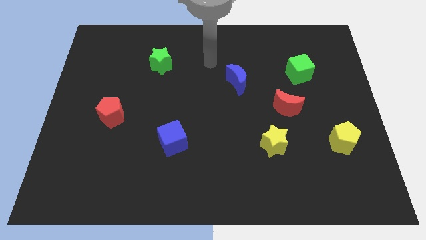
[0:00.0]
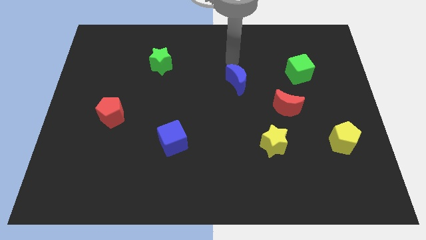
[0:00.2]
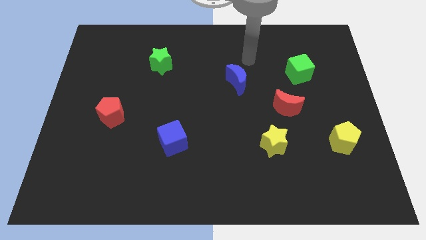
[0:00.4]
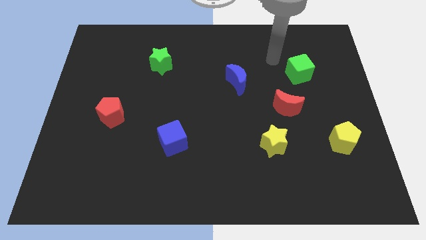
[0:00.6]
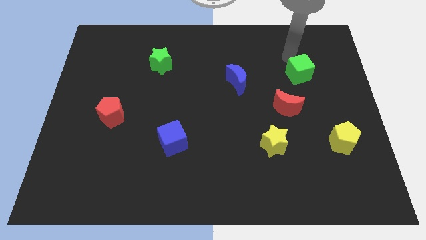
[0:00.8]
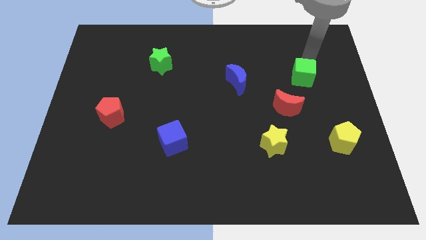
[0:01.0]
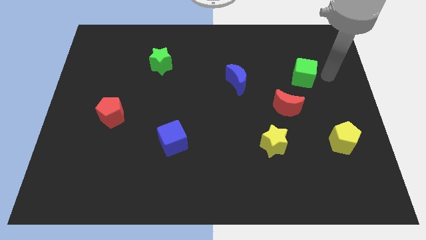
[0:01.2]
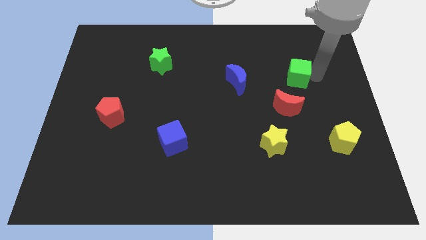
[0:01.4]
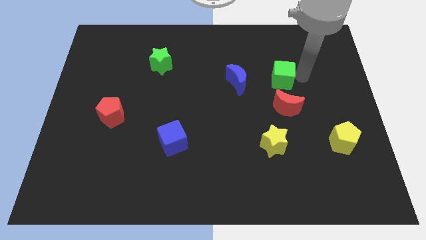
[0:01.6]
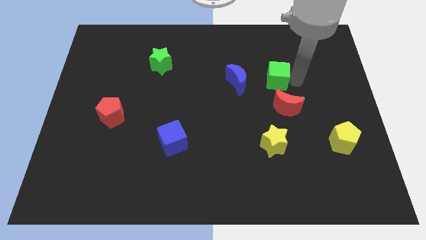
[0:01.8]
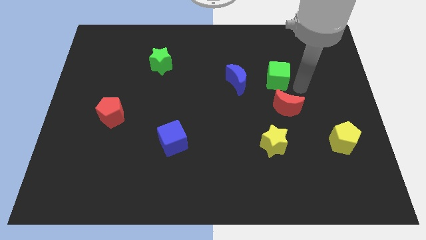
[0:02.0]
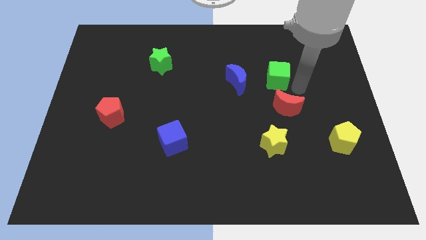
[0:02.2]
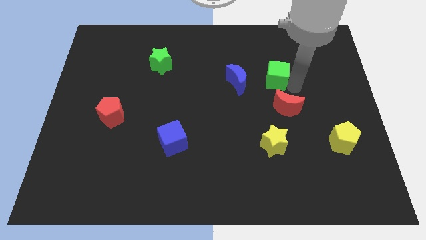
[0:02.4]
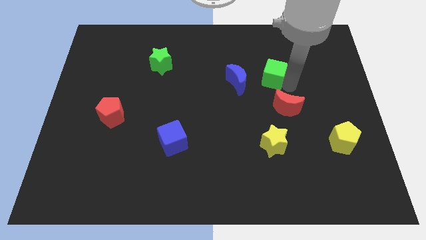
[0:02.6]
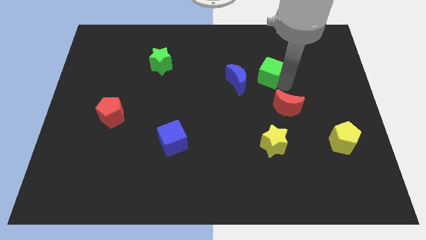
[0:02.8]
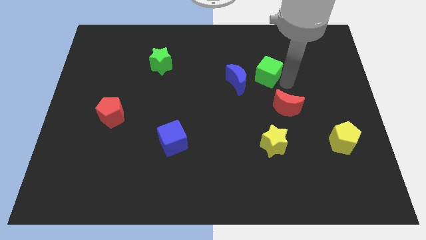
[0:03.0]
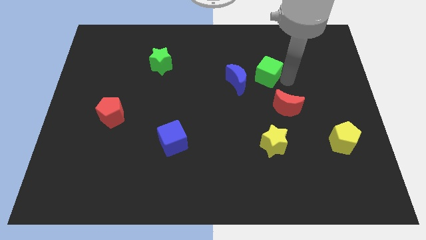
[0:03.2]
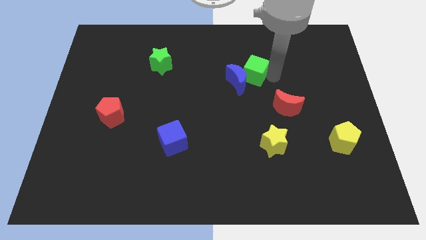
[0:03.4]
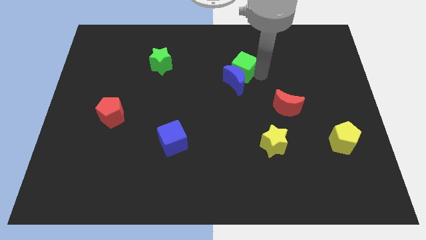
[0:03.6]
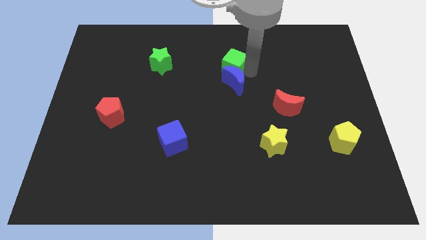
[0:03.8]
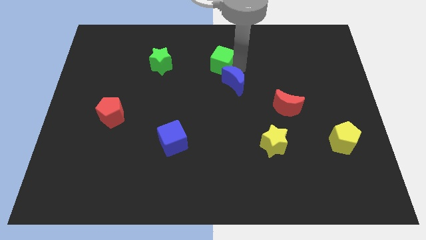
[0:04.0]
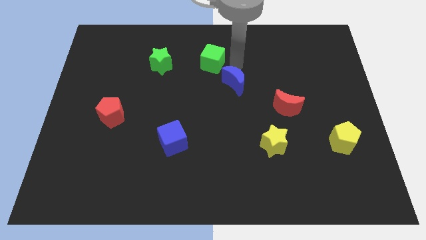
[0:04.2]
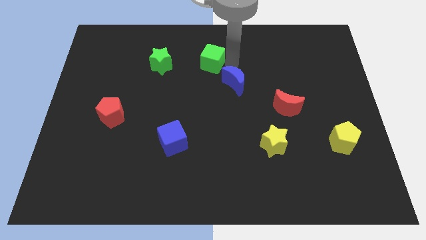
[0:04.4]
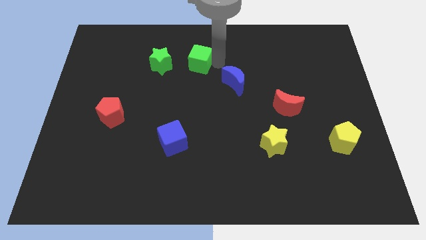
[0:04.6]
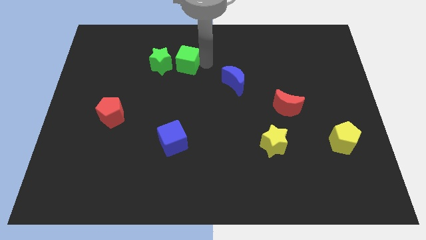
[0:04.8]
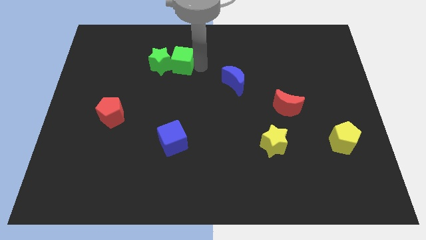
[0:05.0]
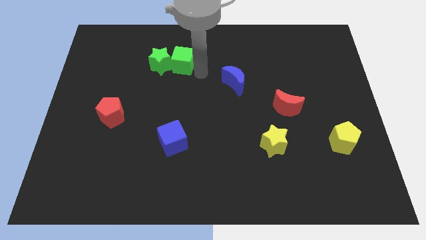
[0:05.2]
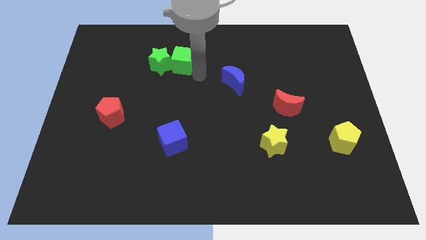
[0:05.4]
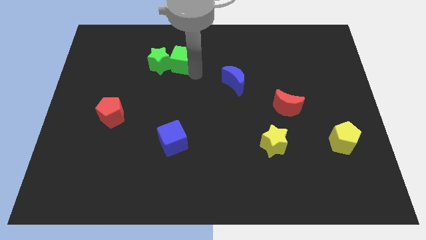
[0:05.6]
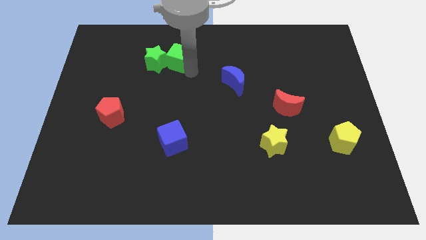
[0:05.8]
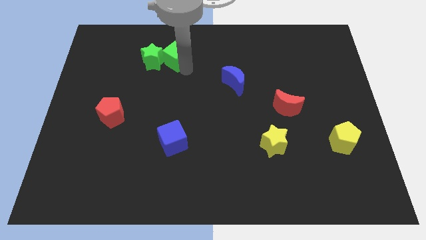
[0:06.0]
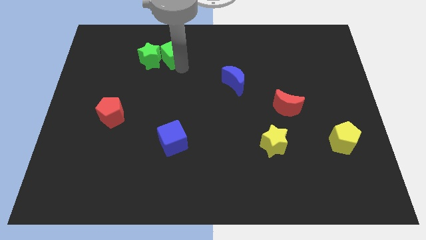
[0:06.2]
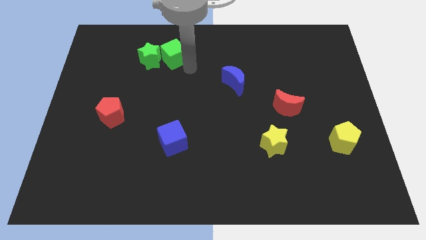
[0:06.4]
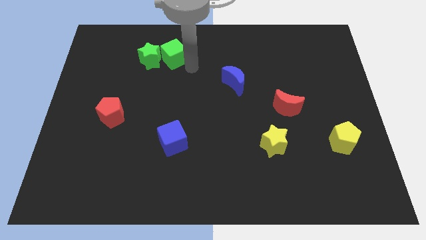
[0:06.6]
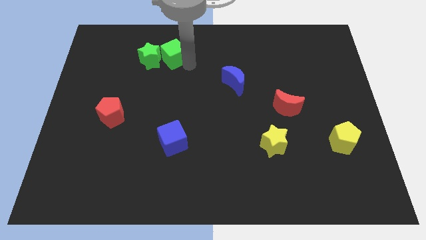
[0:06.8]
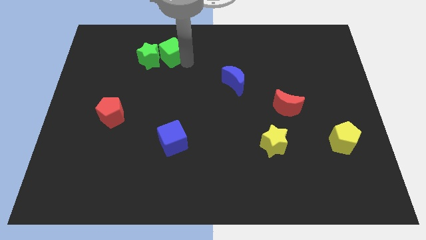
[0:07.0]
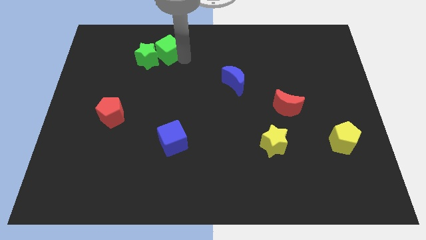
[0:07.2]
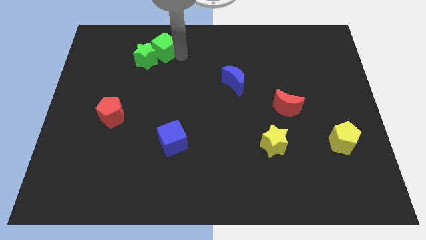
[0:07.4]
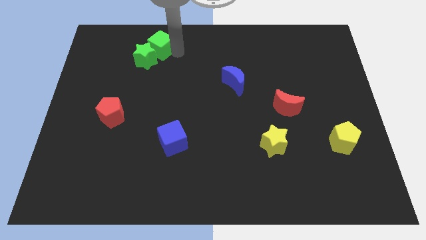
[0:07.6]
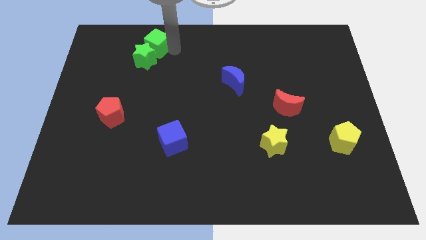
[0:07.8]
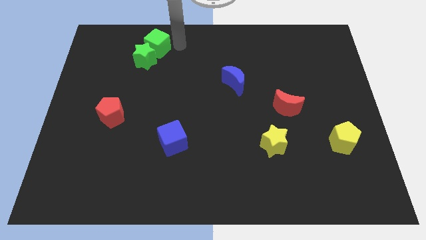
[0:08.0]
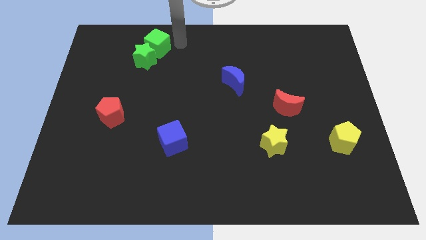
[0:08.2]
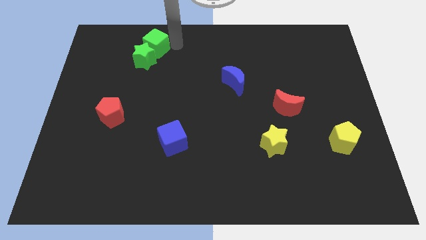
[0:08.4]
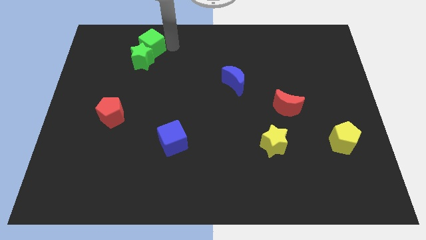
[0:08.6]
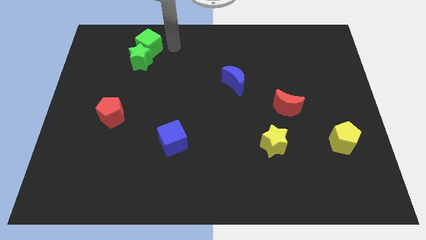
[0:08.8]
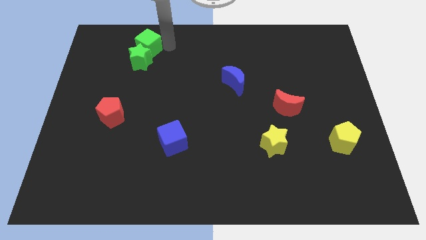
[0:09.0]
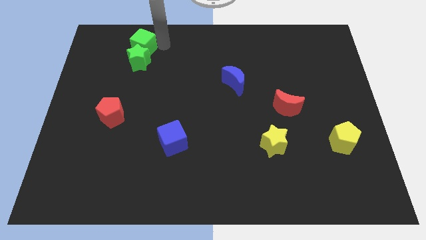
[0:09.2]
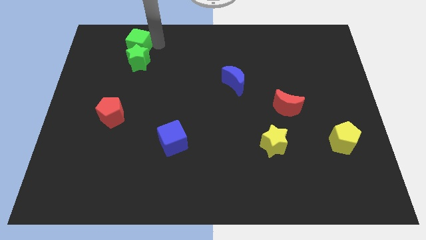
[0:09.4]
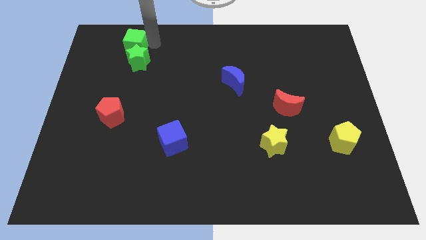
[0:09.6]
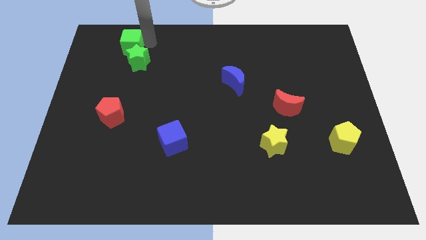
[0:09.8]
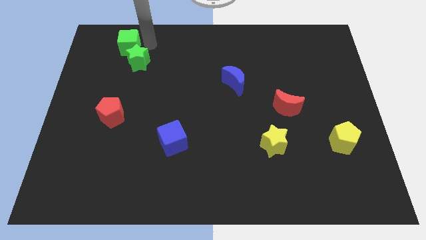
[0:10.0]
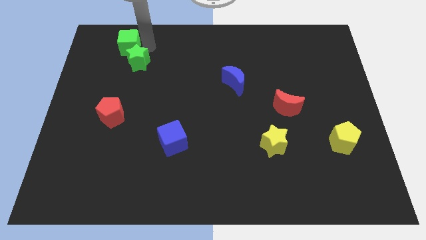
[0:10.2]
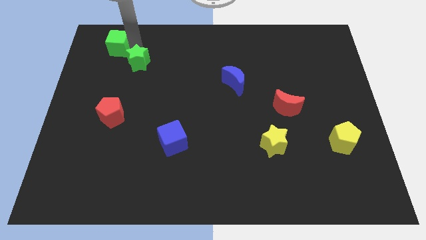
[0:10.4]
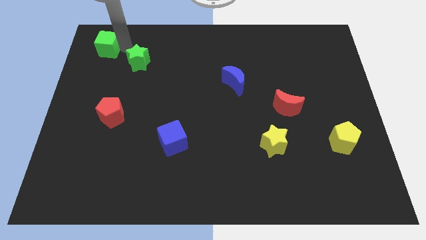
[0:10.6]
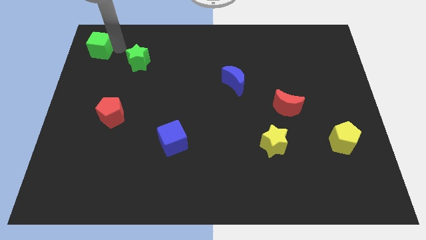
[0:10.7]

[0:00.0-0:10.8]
push the green cube to the top left
